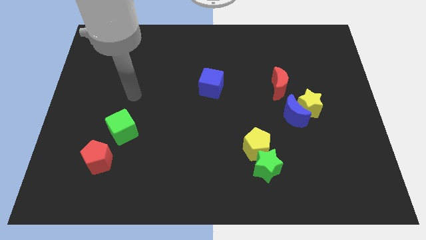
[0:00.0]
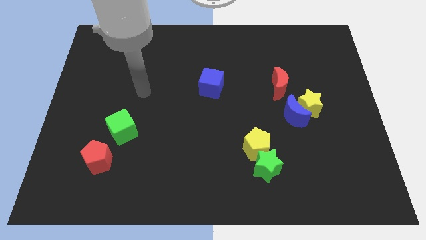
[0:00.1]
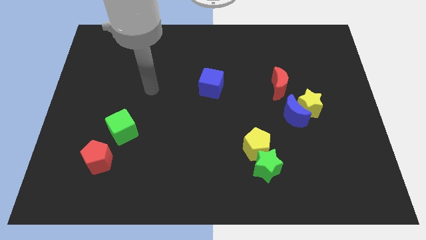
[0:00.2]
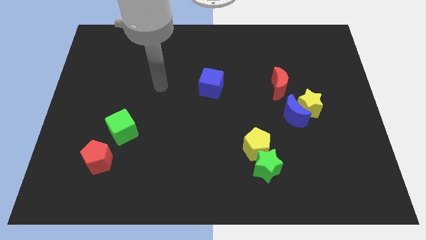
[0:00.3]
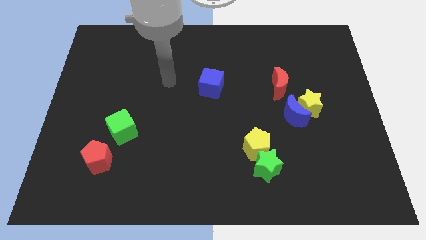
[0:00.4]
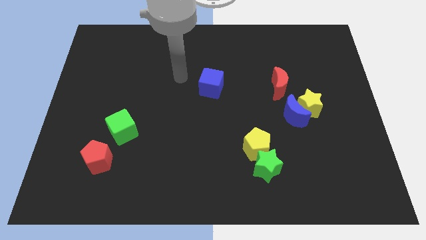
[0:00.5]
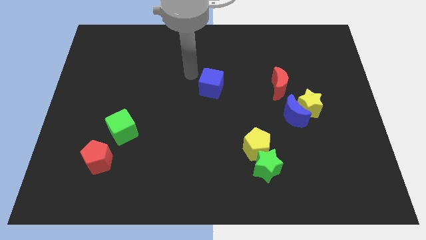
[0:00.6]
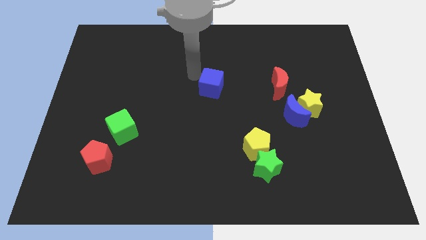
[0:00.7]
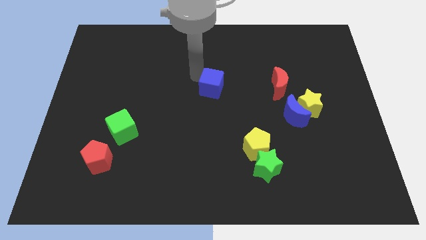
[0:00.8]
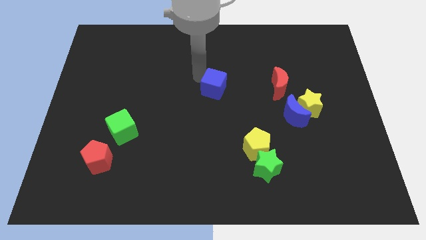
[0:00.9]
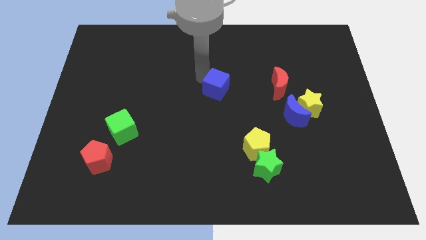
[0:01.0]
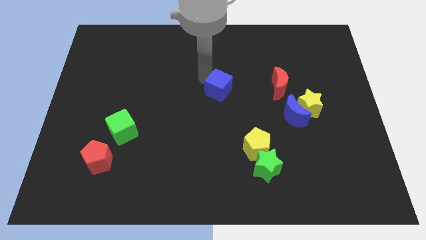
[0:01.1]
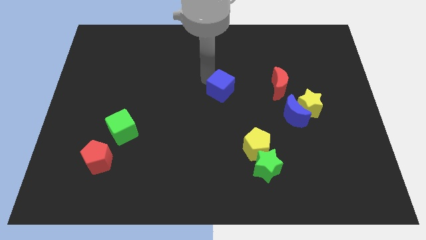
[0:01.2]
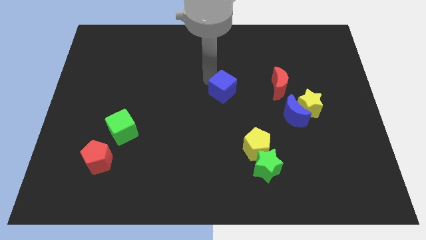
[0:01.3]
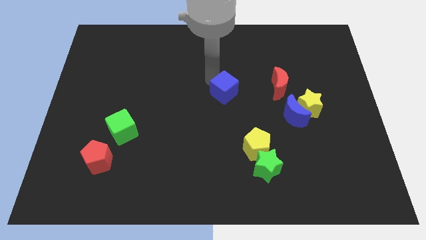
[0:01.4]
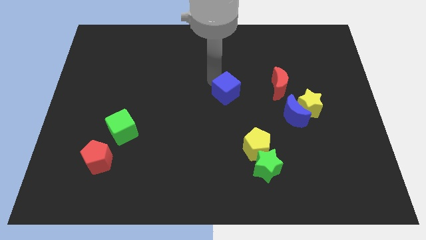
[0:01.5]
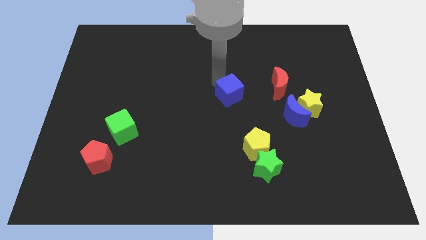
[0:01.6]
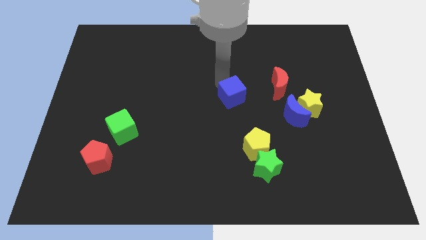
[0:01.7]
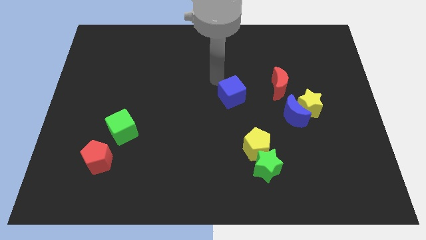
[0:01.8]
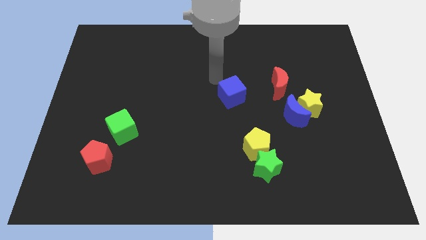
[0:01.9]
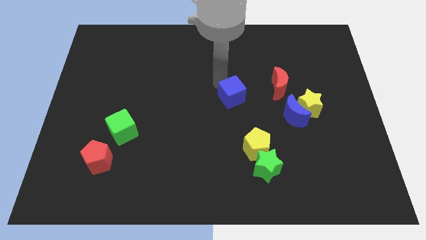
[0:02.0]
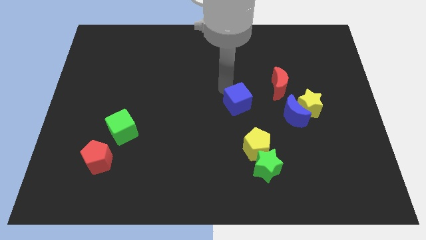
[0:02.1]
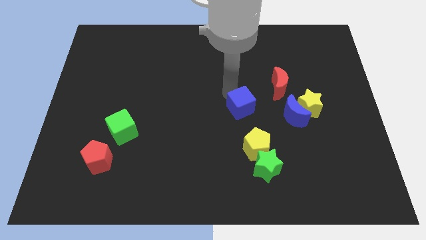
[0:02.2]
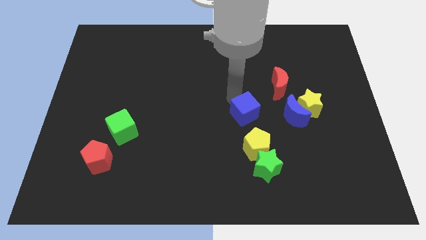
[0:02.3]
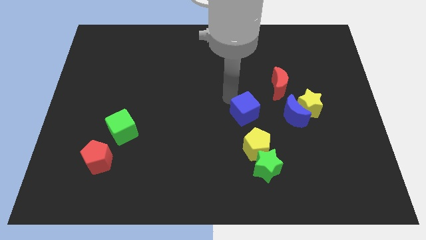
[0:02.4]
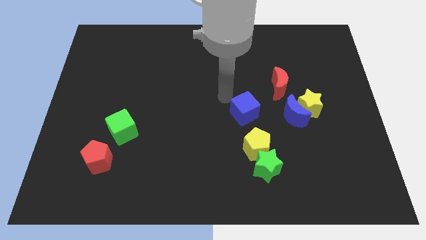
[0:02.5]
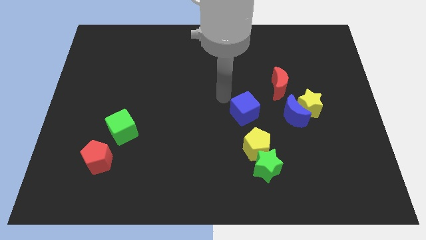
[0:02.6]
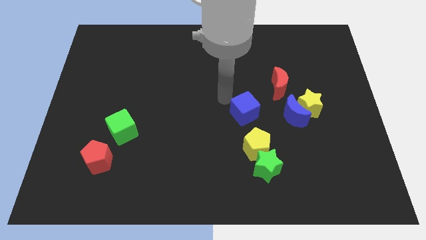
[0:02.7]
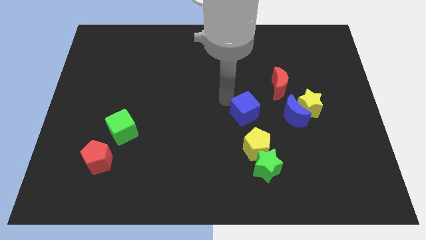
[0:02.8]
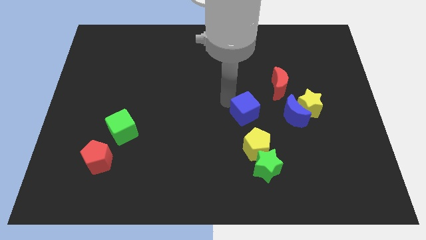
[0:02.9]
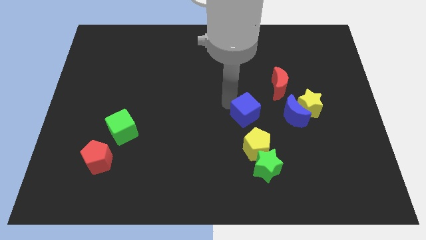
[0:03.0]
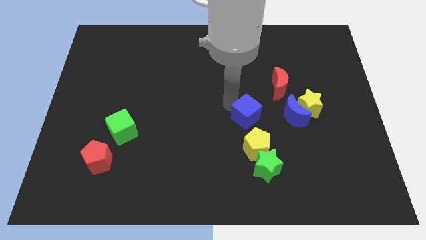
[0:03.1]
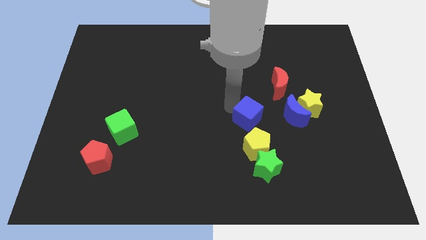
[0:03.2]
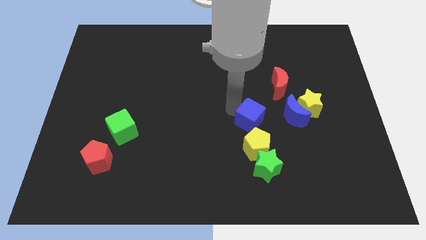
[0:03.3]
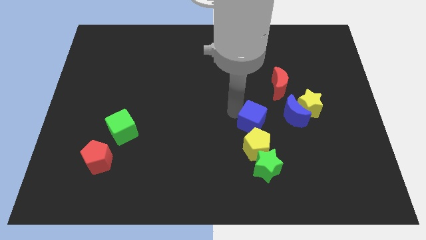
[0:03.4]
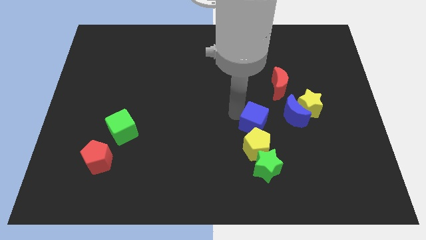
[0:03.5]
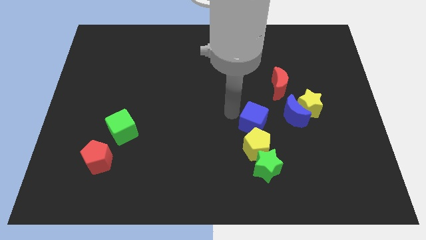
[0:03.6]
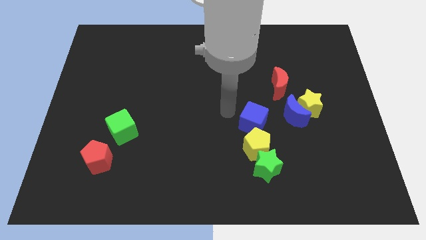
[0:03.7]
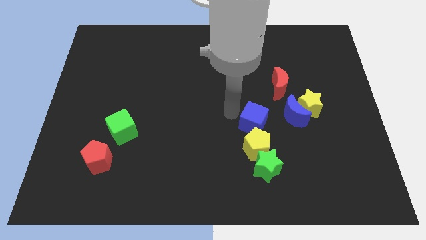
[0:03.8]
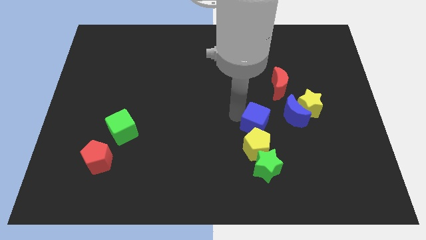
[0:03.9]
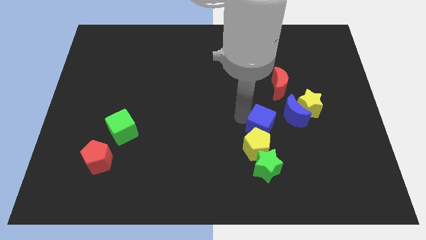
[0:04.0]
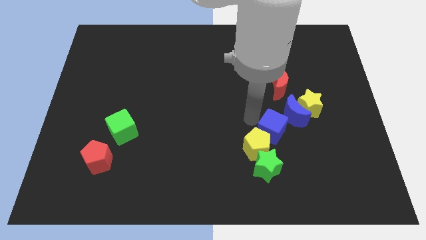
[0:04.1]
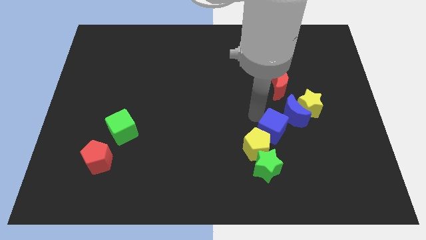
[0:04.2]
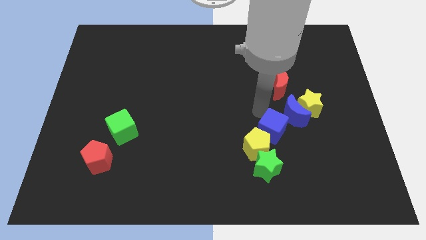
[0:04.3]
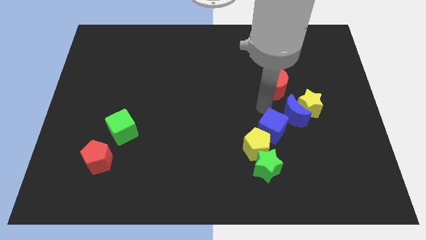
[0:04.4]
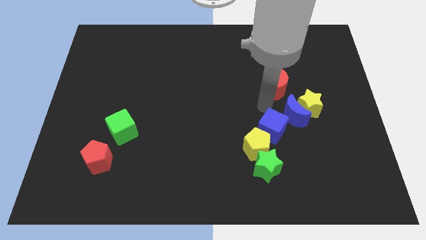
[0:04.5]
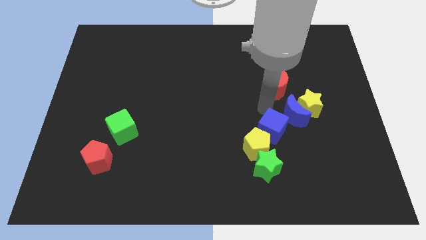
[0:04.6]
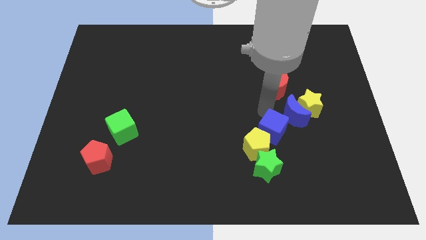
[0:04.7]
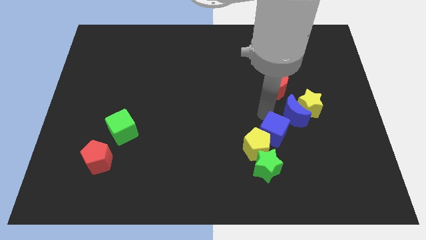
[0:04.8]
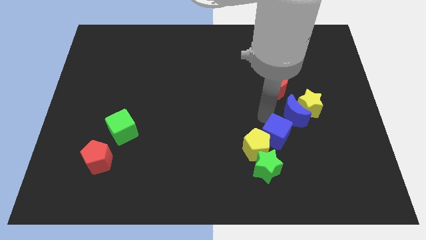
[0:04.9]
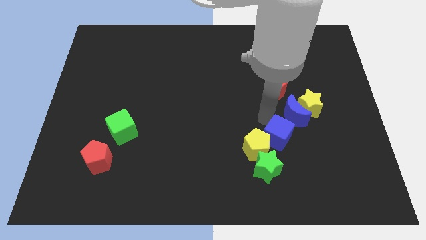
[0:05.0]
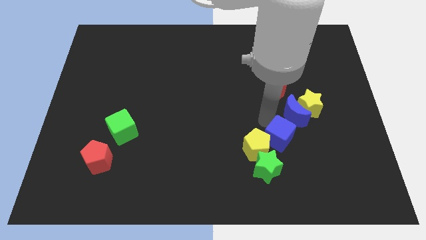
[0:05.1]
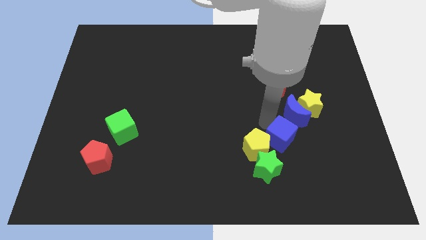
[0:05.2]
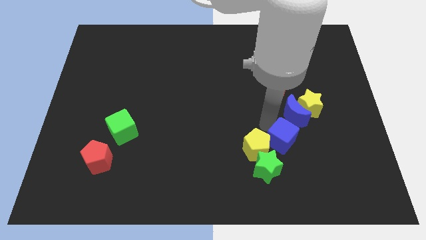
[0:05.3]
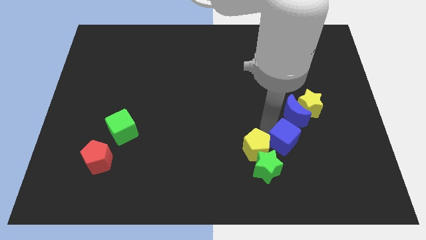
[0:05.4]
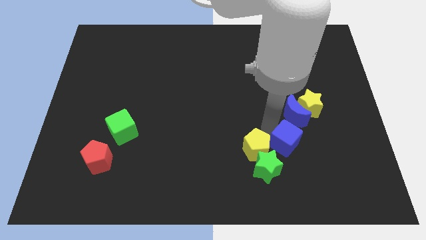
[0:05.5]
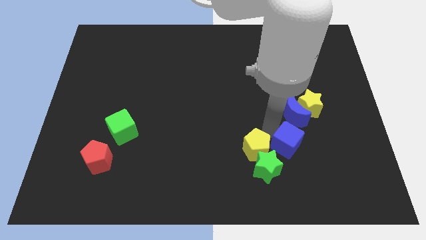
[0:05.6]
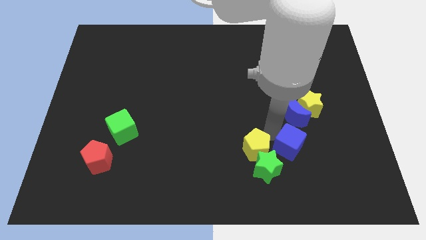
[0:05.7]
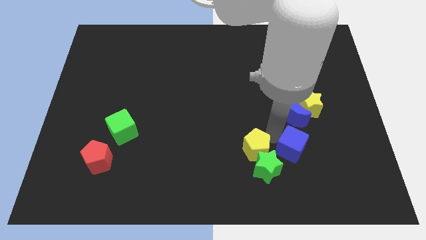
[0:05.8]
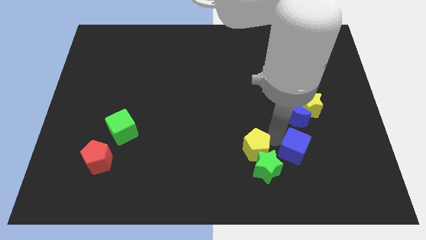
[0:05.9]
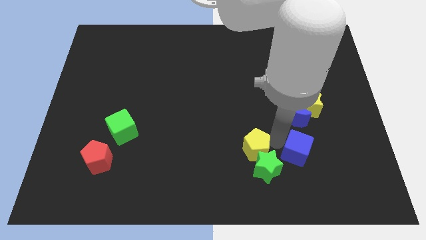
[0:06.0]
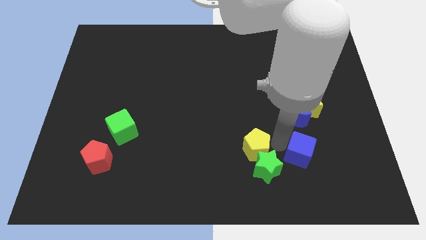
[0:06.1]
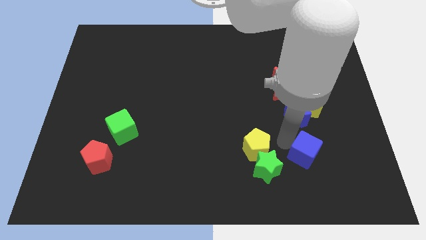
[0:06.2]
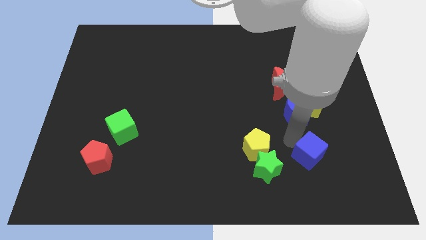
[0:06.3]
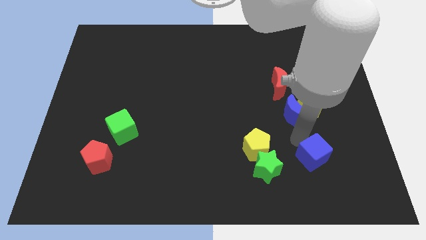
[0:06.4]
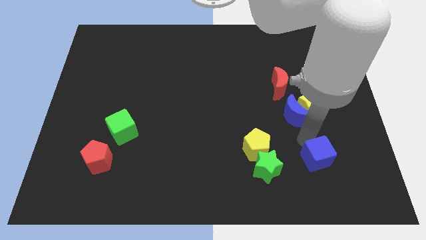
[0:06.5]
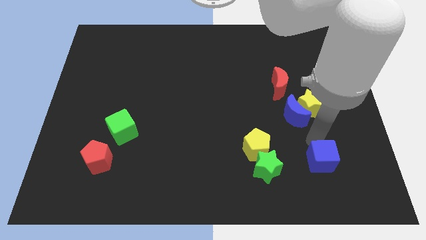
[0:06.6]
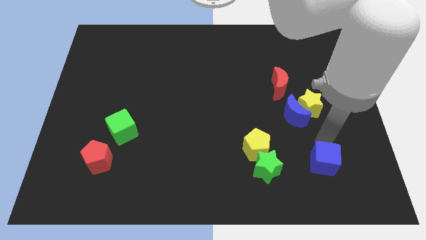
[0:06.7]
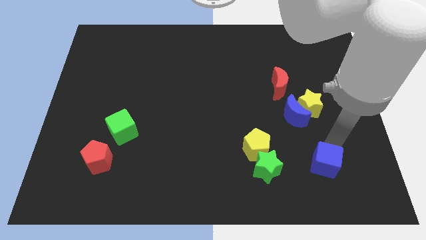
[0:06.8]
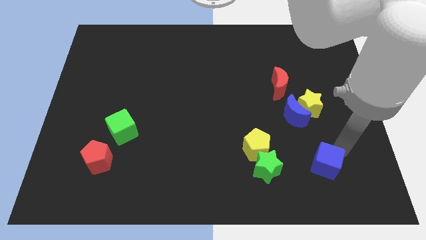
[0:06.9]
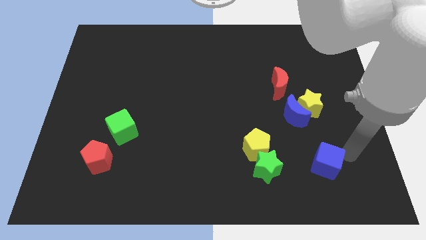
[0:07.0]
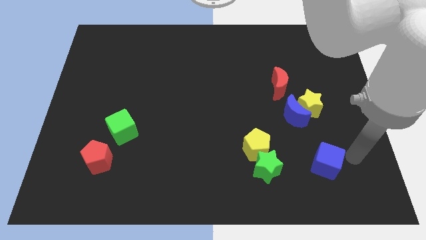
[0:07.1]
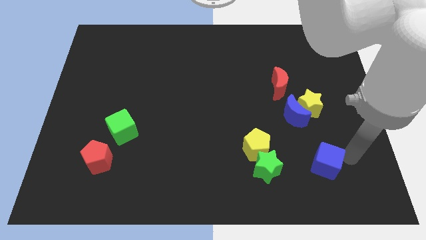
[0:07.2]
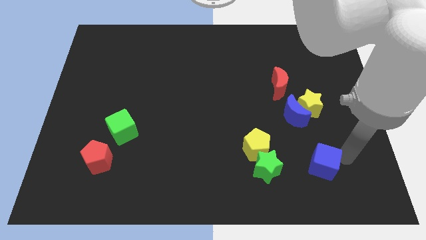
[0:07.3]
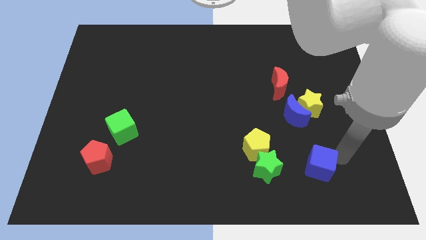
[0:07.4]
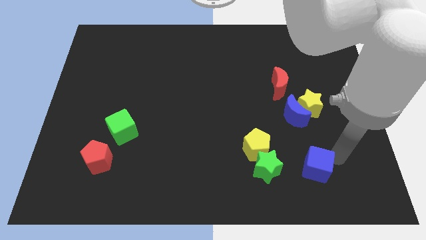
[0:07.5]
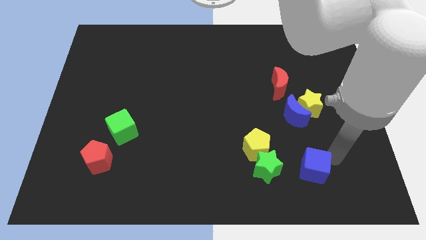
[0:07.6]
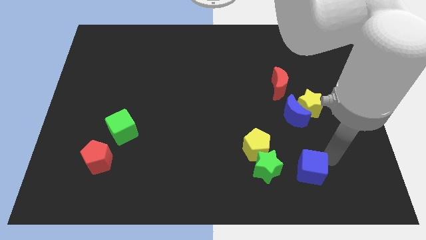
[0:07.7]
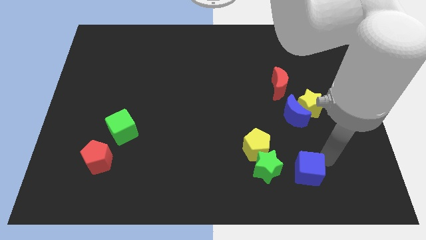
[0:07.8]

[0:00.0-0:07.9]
move the blue cube to the bottom right side of the yellow pentagon
